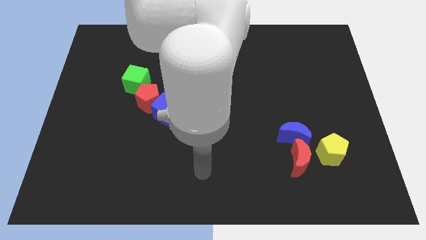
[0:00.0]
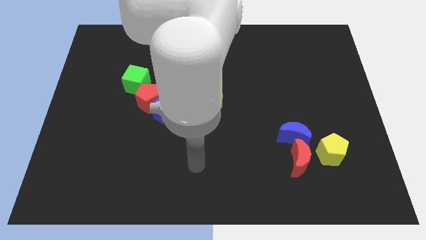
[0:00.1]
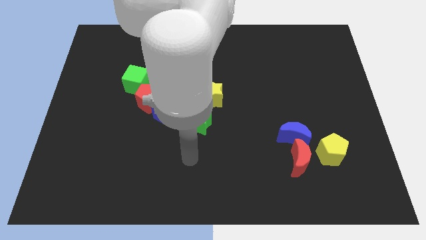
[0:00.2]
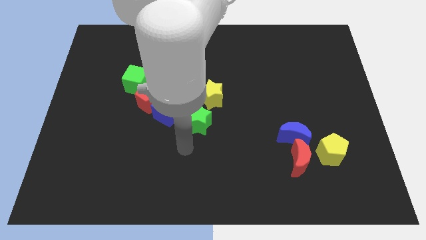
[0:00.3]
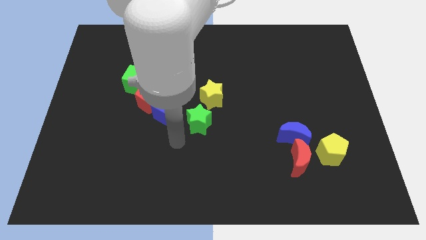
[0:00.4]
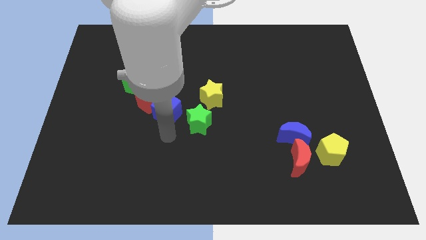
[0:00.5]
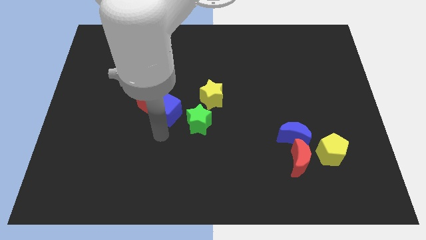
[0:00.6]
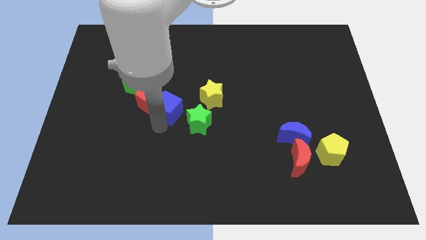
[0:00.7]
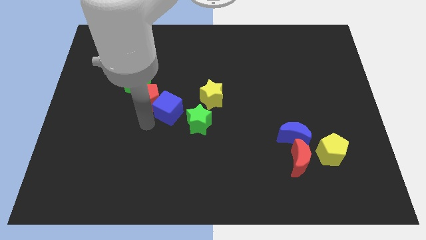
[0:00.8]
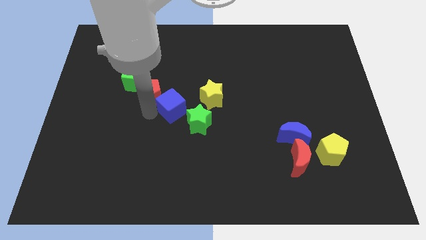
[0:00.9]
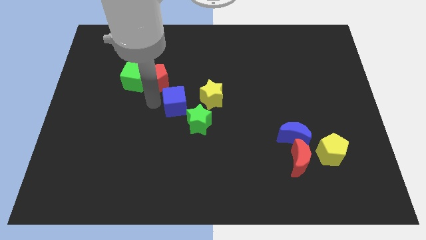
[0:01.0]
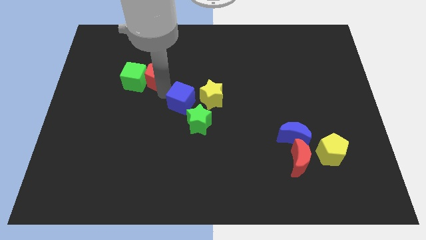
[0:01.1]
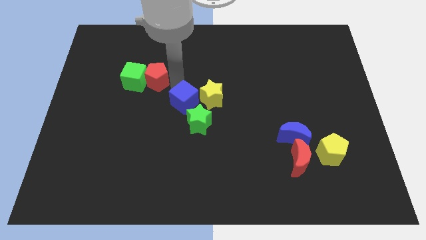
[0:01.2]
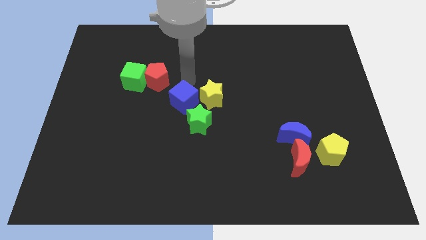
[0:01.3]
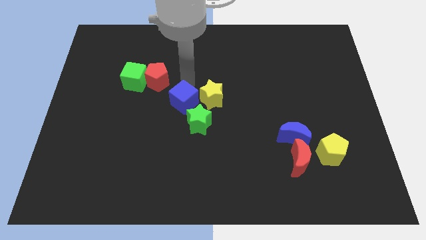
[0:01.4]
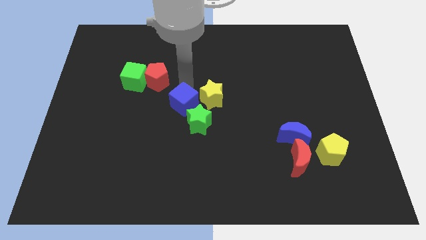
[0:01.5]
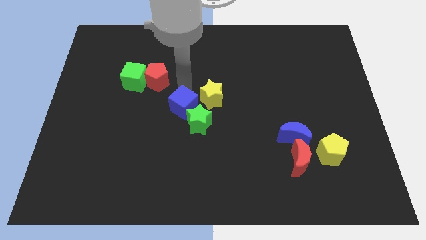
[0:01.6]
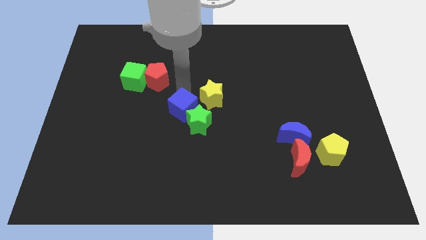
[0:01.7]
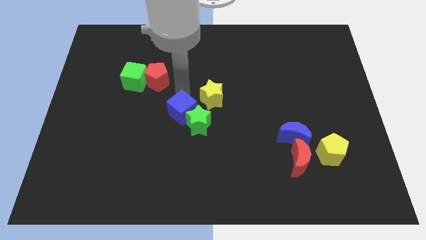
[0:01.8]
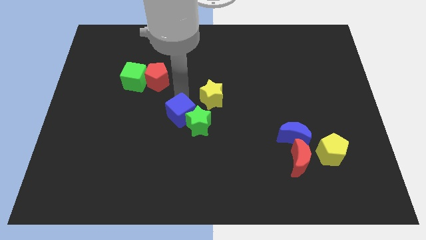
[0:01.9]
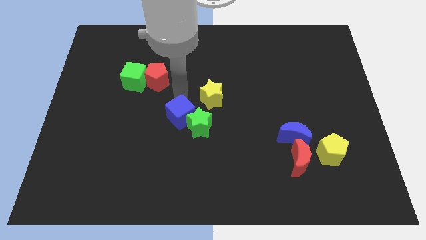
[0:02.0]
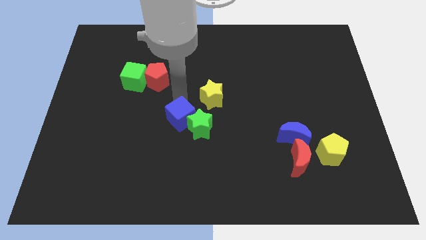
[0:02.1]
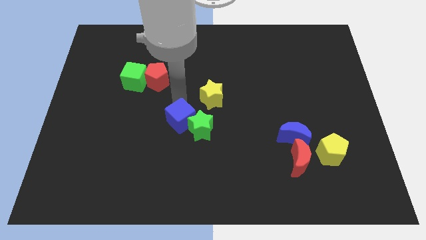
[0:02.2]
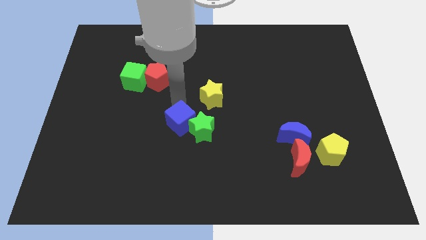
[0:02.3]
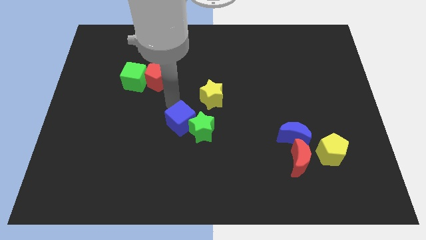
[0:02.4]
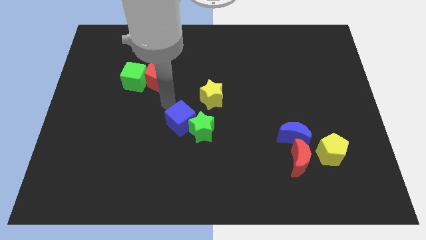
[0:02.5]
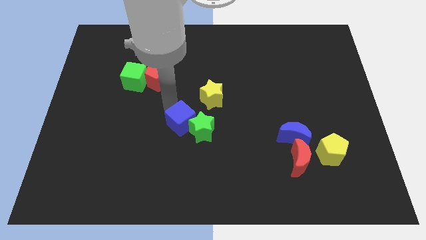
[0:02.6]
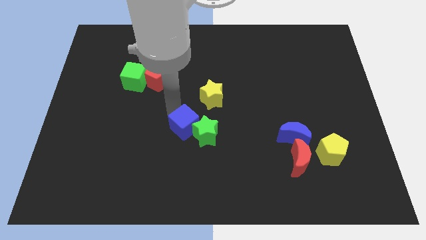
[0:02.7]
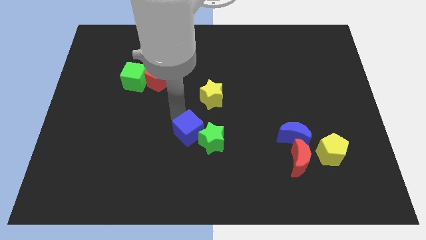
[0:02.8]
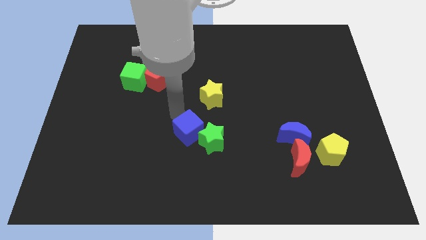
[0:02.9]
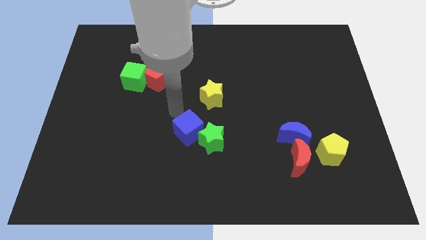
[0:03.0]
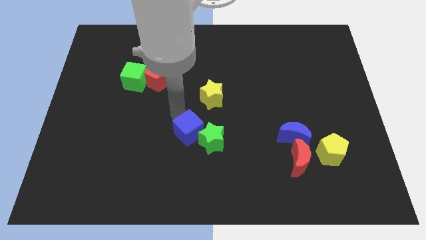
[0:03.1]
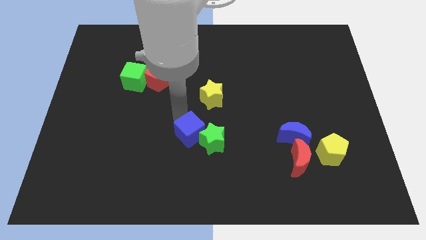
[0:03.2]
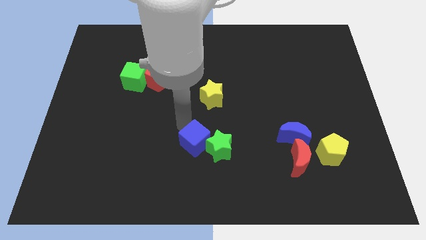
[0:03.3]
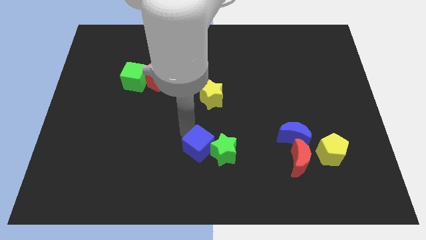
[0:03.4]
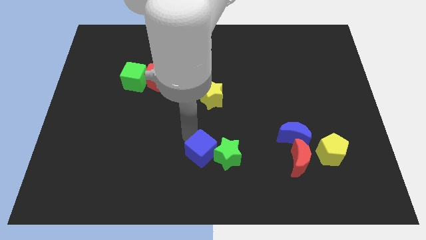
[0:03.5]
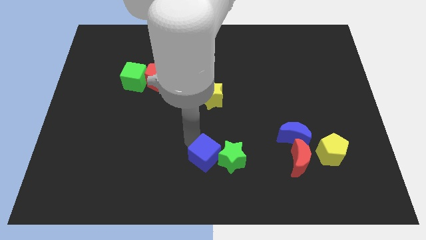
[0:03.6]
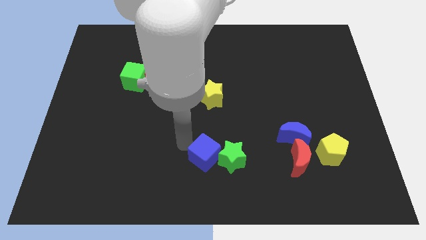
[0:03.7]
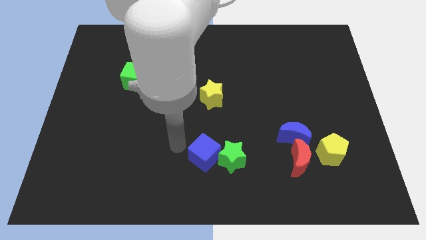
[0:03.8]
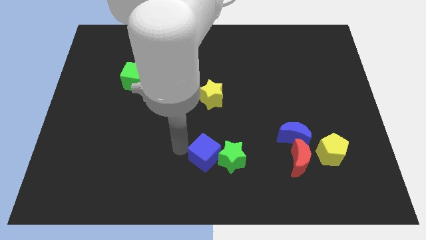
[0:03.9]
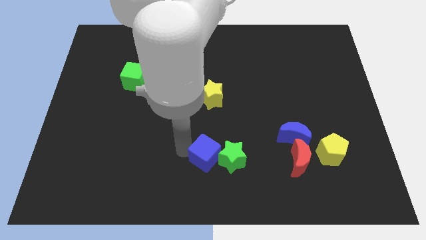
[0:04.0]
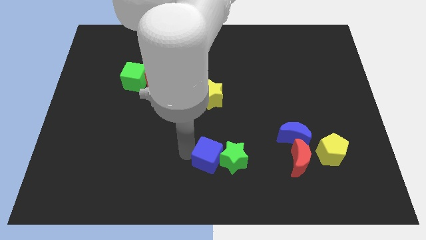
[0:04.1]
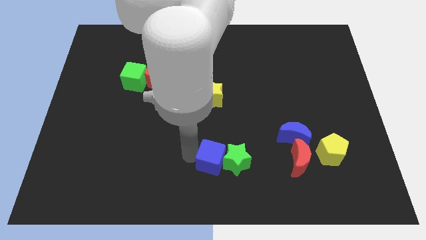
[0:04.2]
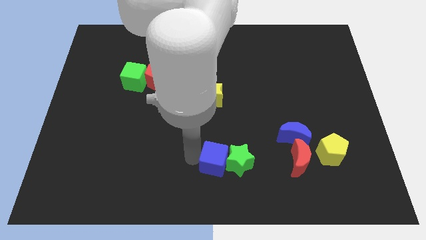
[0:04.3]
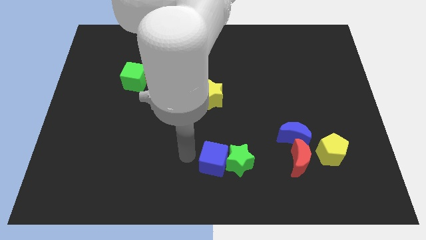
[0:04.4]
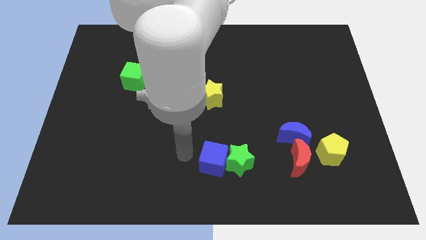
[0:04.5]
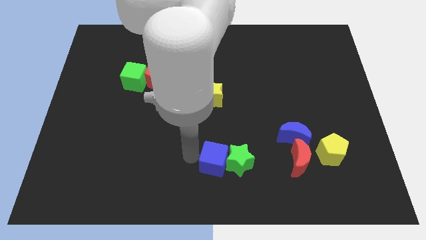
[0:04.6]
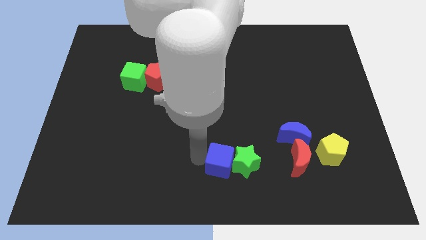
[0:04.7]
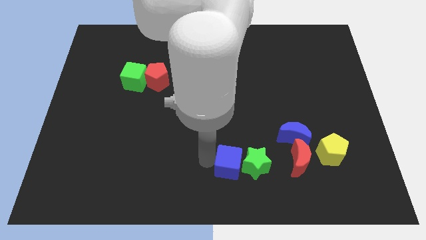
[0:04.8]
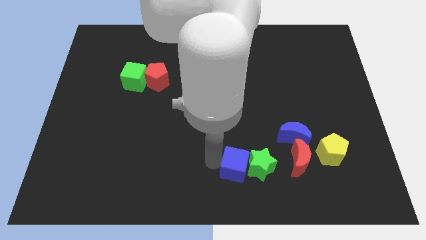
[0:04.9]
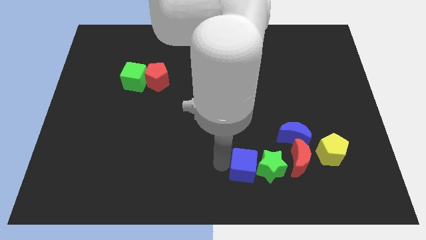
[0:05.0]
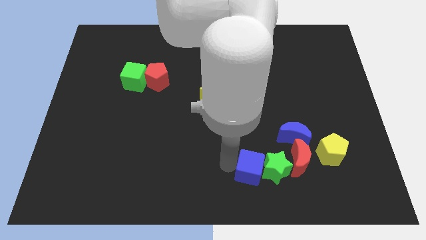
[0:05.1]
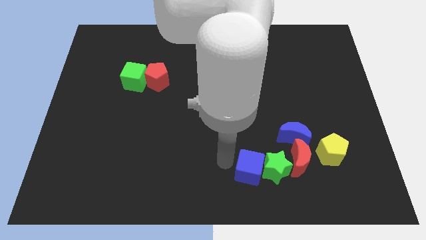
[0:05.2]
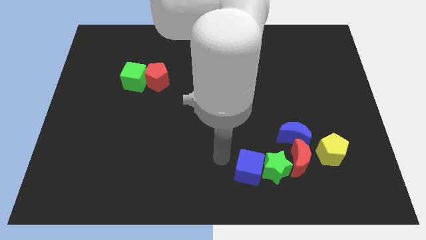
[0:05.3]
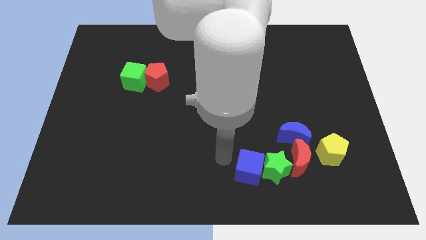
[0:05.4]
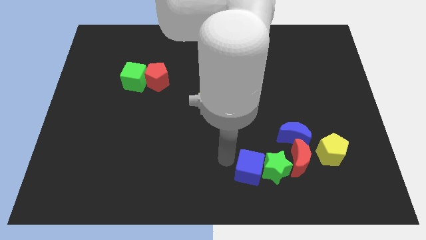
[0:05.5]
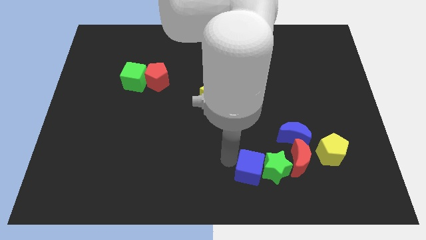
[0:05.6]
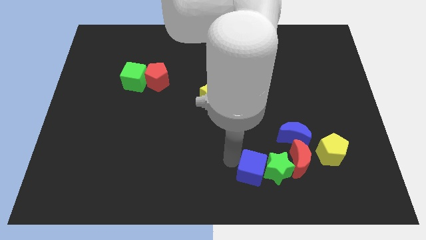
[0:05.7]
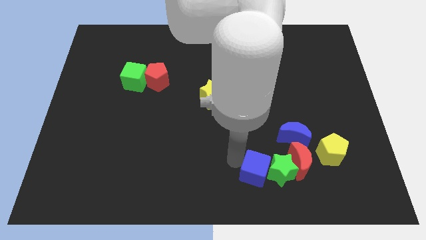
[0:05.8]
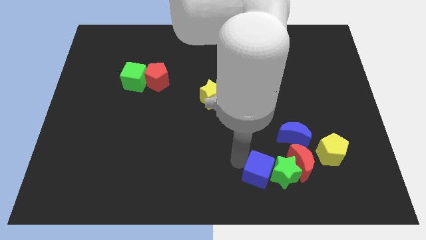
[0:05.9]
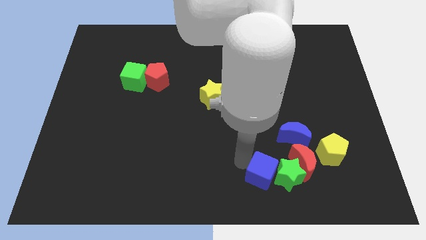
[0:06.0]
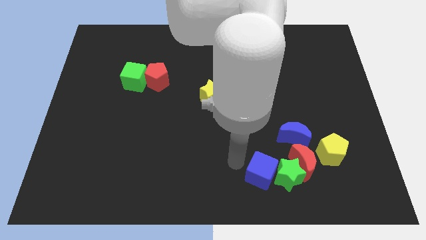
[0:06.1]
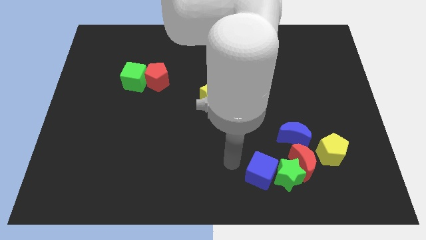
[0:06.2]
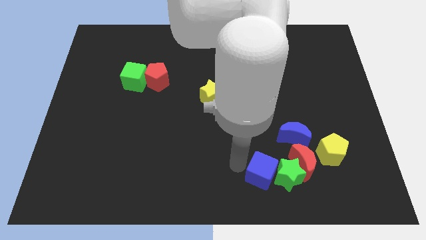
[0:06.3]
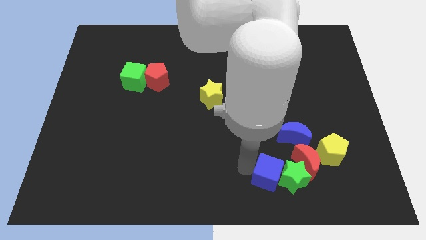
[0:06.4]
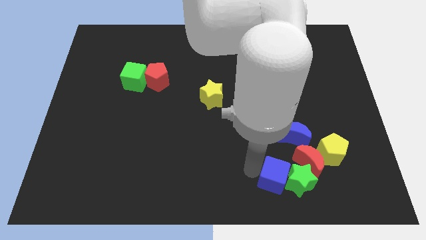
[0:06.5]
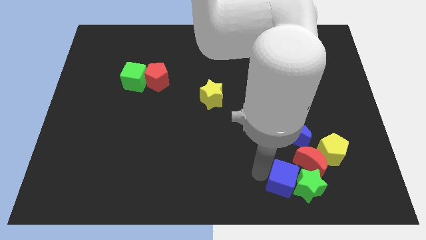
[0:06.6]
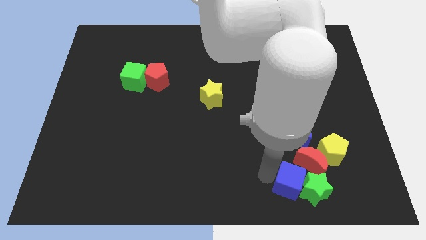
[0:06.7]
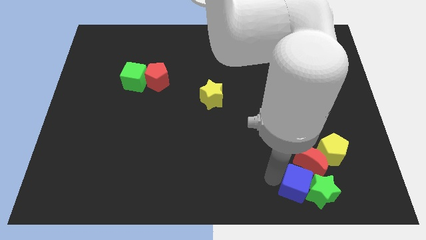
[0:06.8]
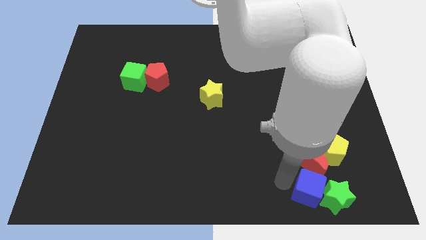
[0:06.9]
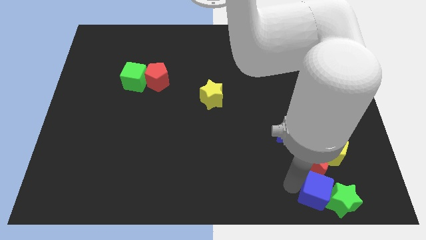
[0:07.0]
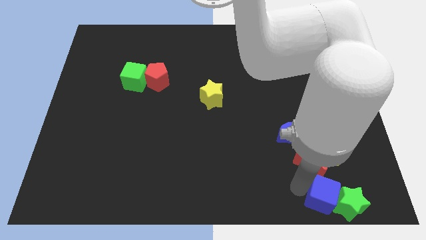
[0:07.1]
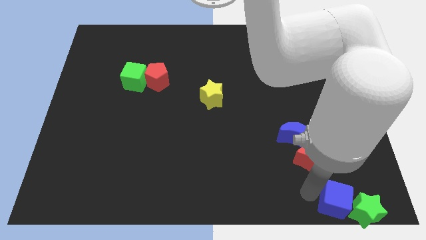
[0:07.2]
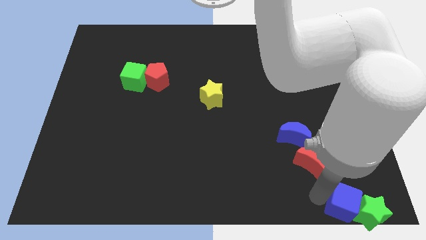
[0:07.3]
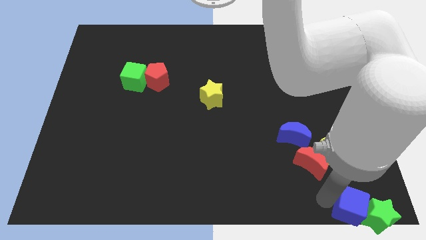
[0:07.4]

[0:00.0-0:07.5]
push the blue cube to the bottom right corner
